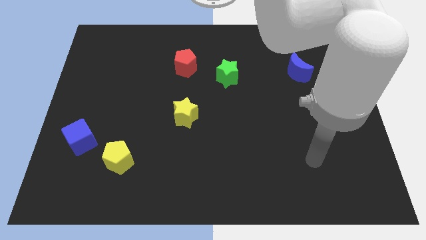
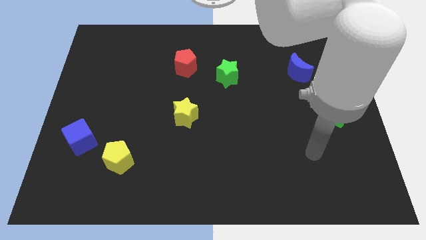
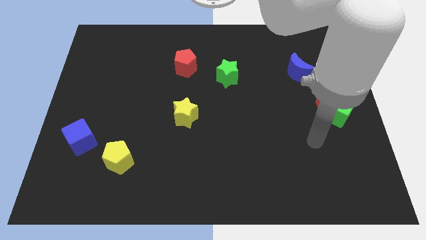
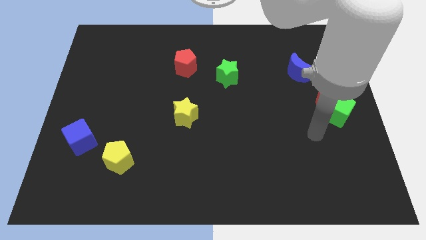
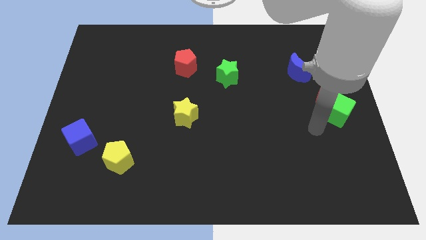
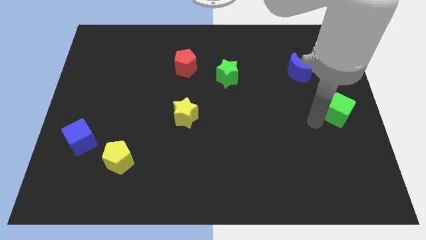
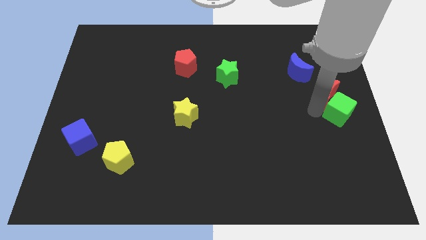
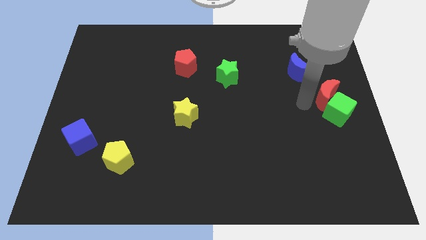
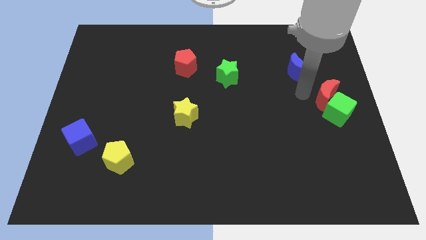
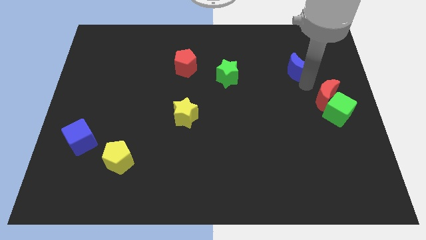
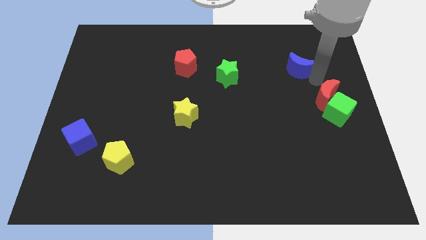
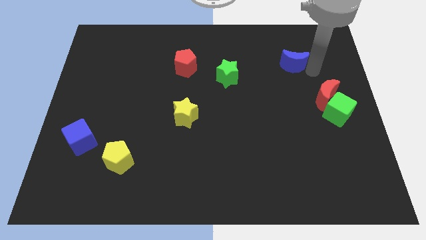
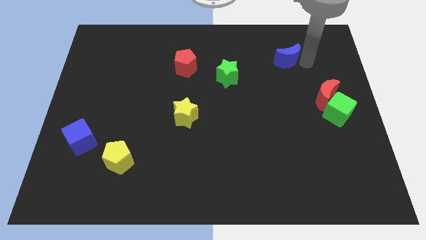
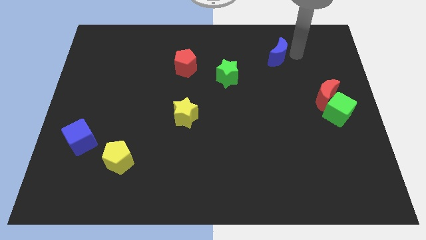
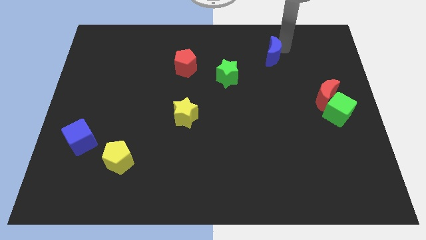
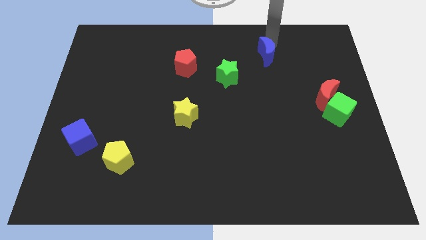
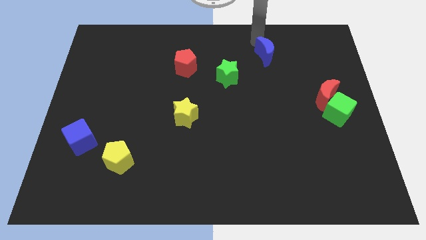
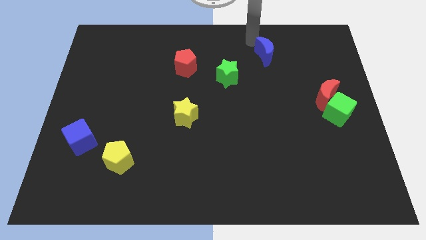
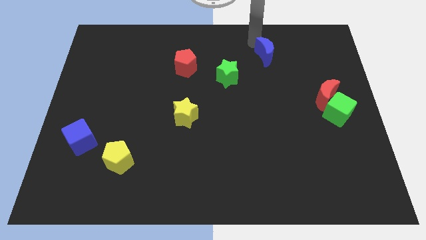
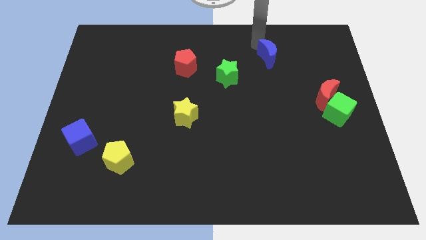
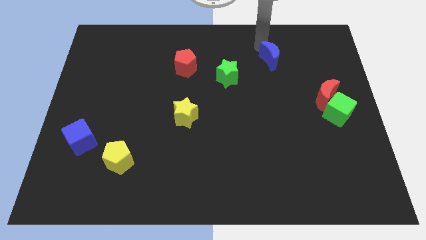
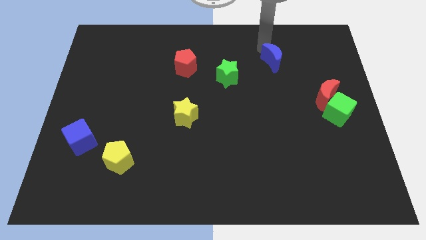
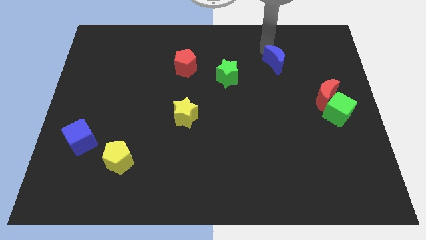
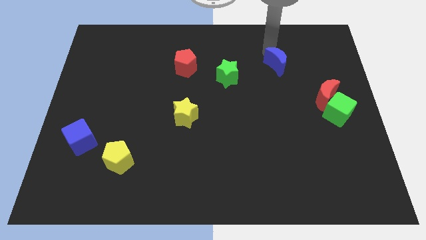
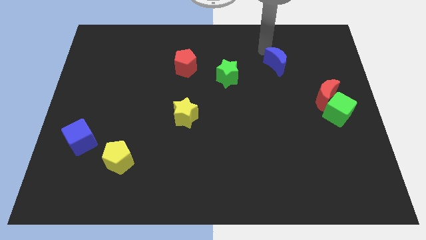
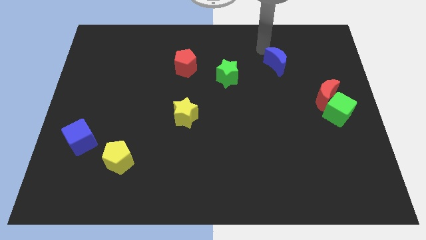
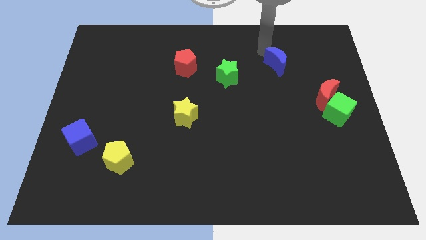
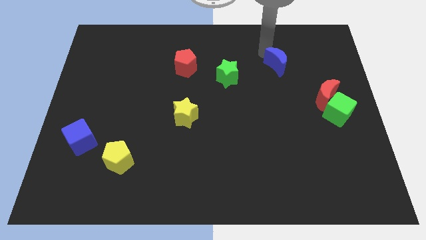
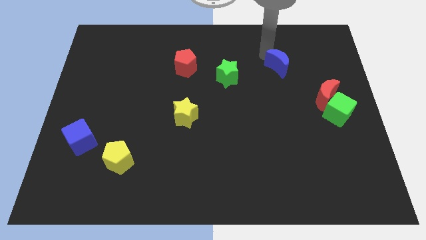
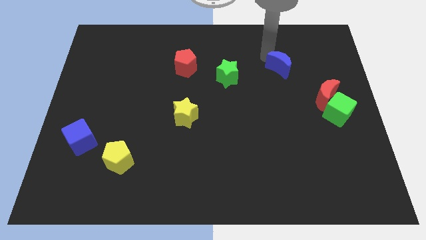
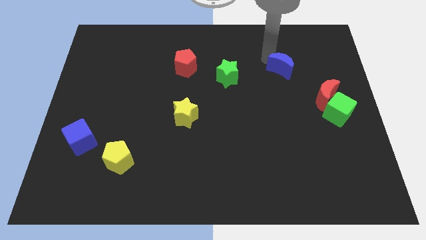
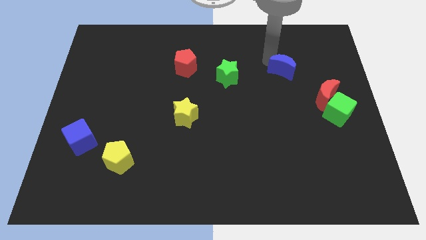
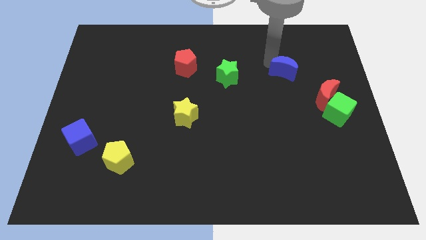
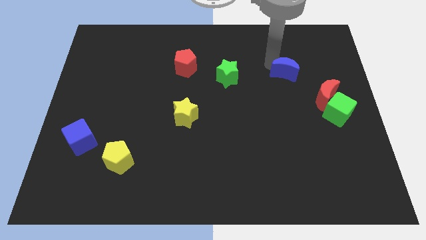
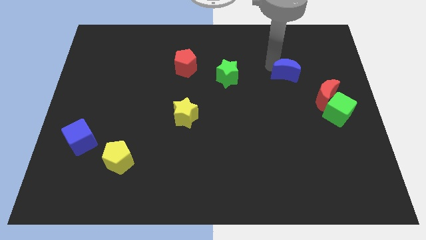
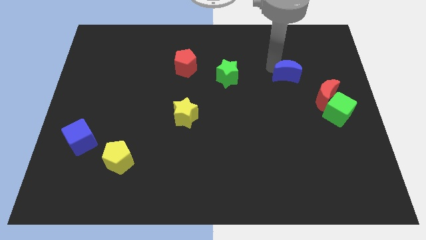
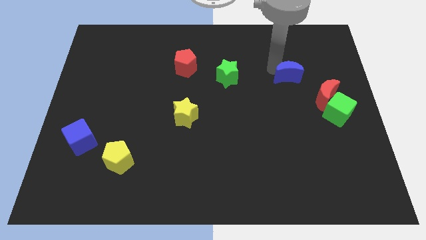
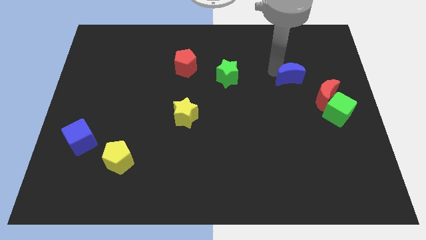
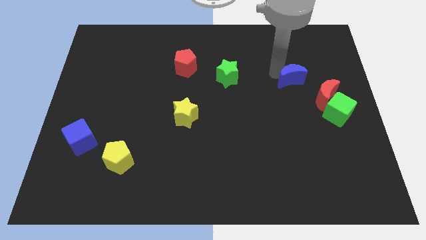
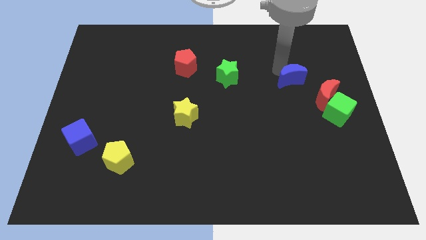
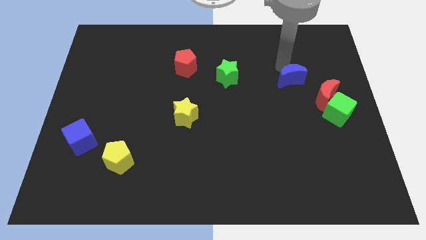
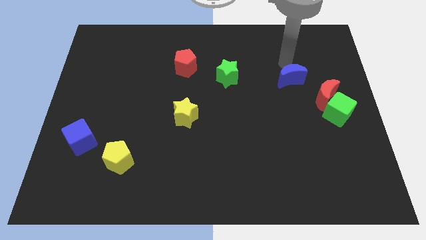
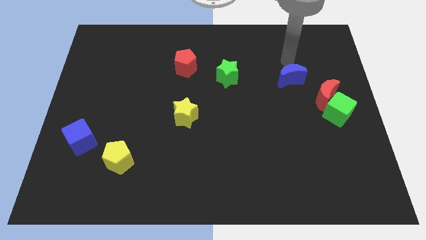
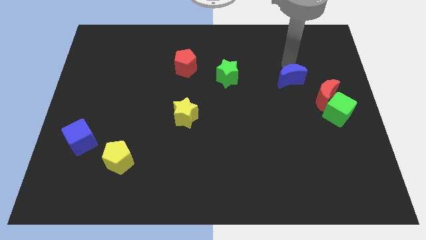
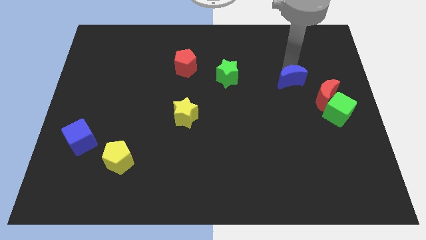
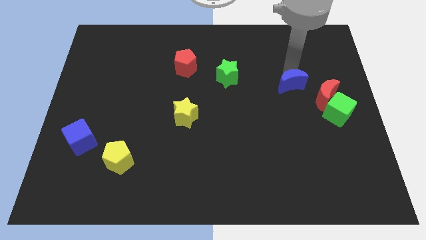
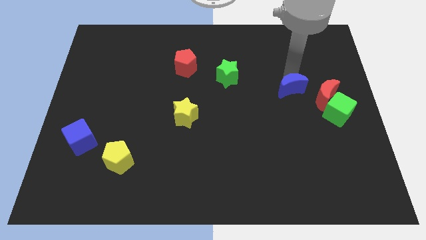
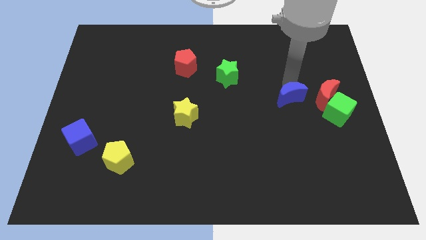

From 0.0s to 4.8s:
slide the blue moon a bit down

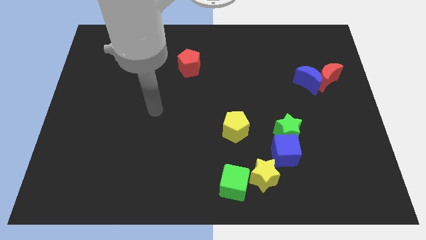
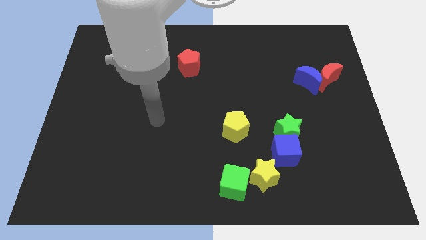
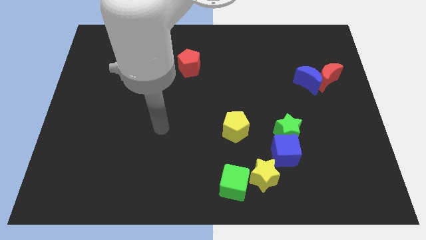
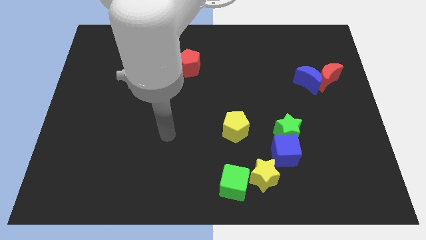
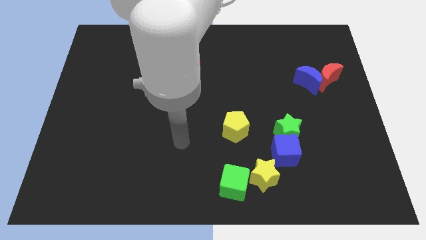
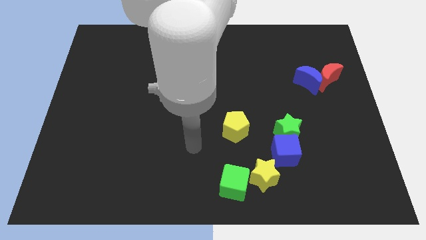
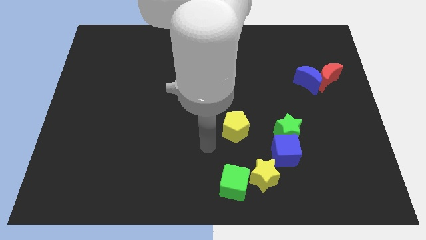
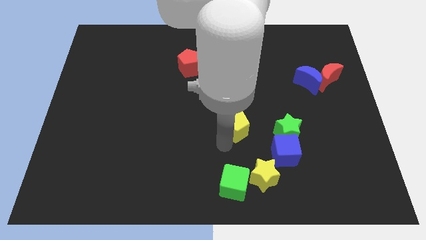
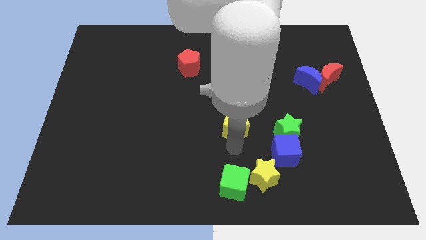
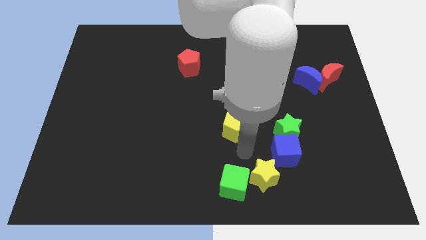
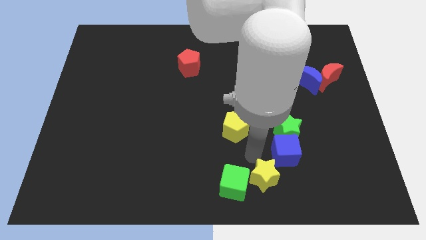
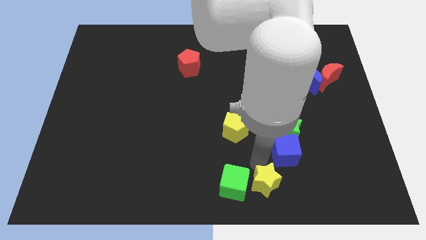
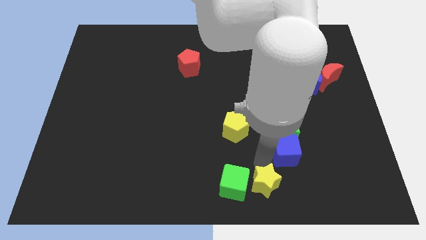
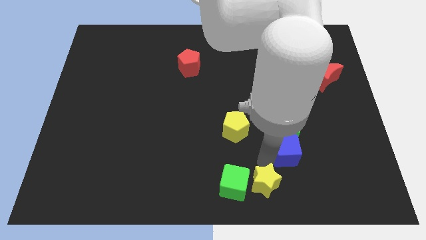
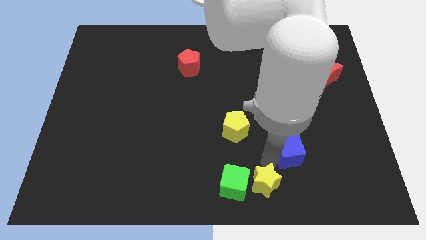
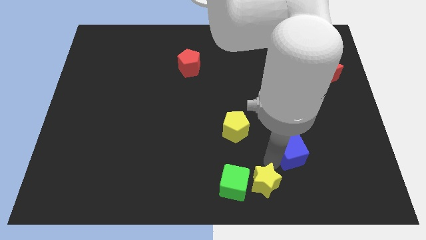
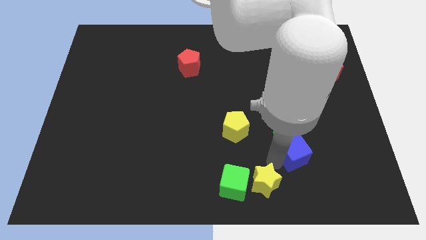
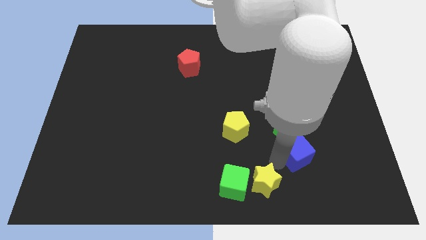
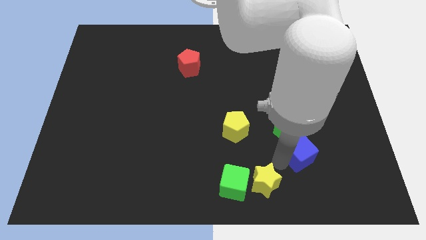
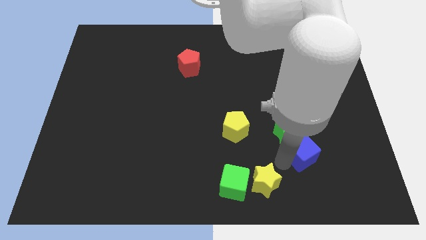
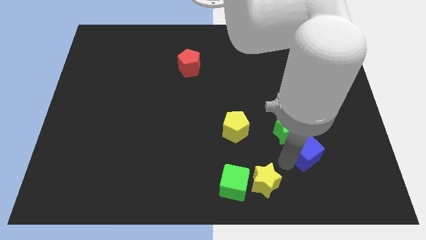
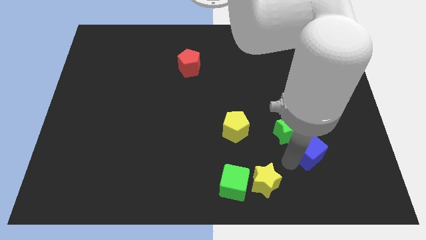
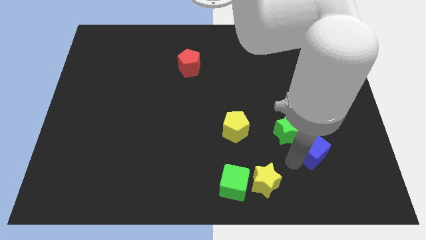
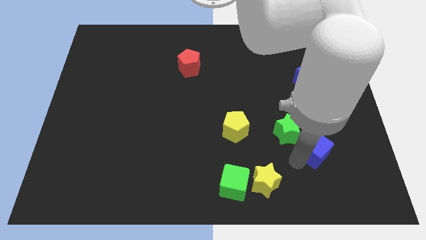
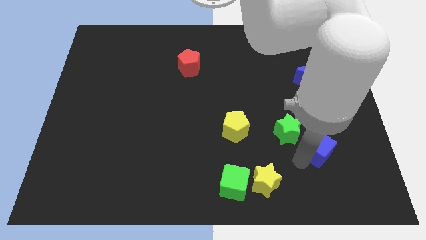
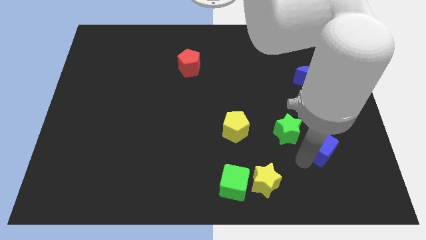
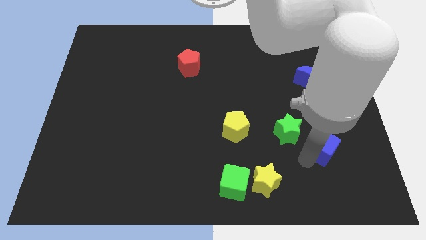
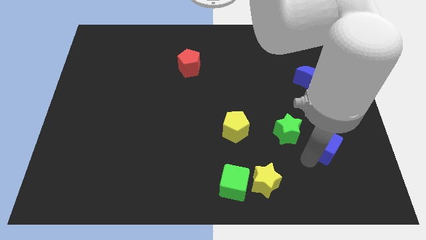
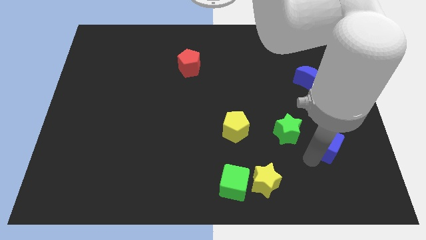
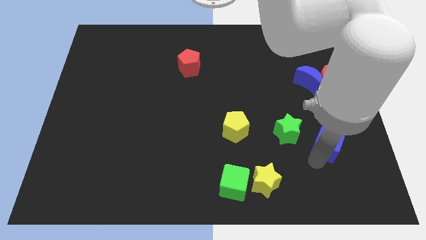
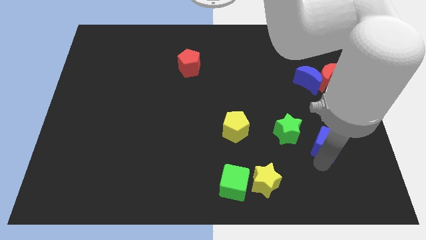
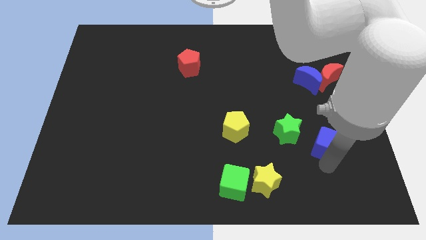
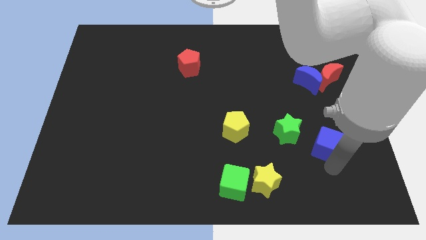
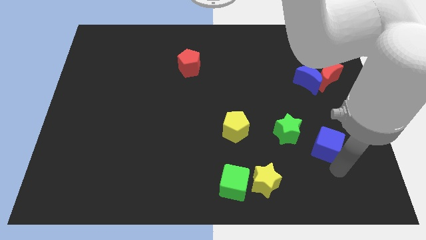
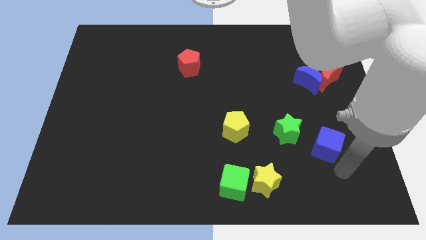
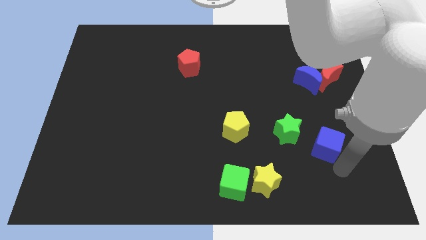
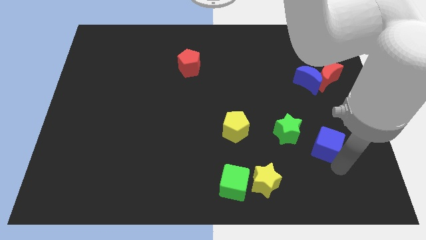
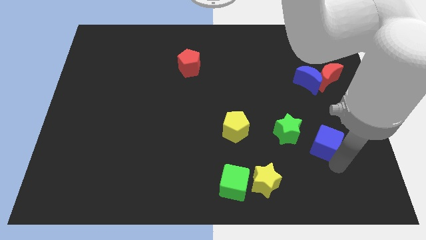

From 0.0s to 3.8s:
move the blue cube a little bit upwards and then right
